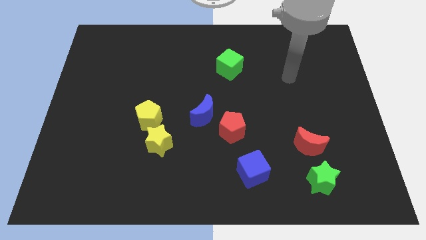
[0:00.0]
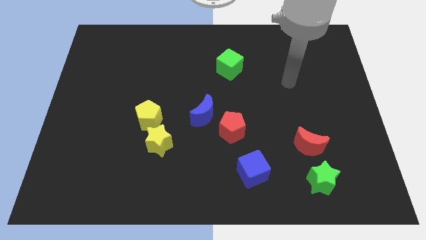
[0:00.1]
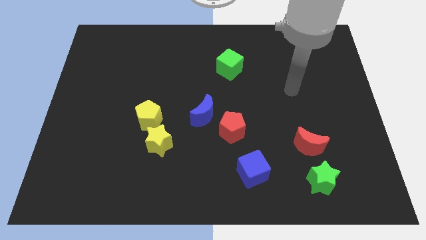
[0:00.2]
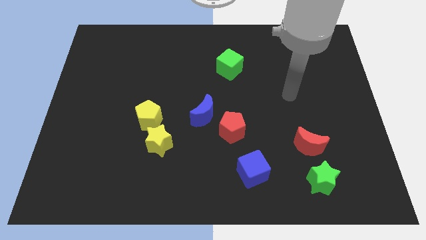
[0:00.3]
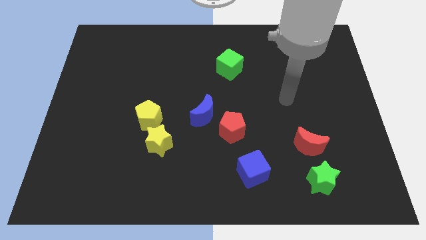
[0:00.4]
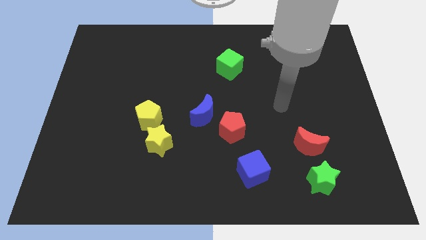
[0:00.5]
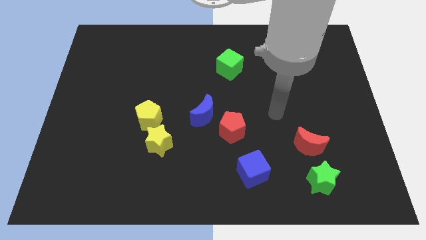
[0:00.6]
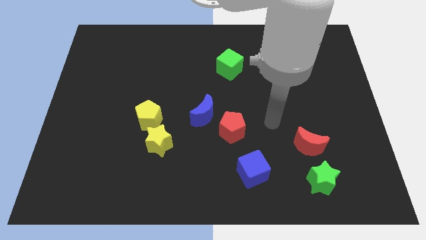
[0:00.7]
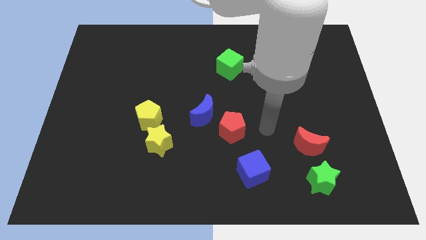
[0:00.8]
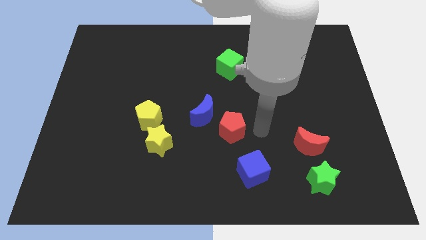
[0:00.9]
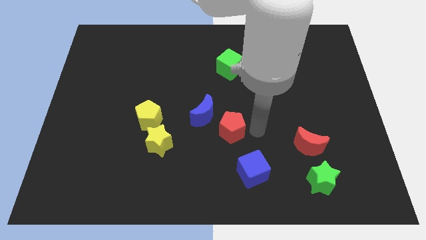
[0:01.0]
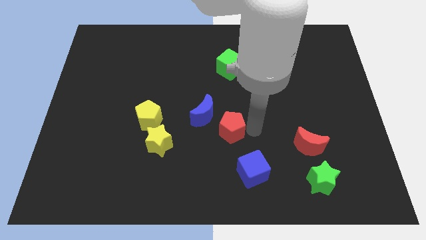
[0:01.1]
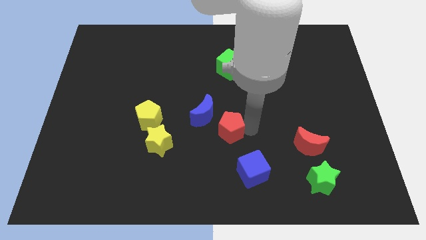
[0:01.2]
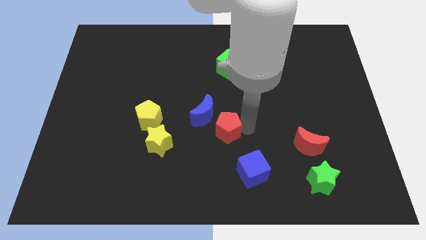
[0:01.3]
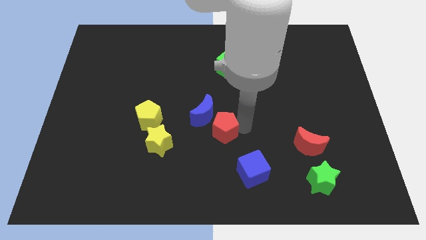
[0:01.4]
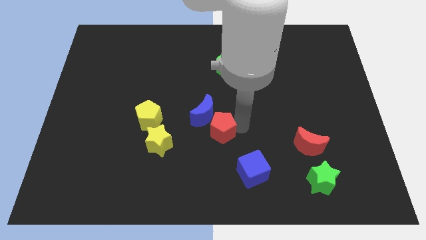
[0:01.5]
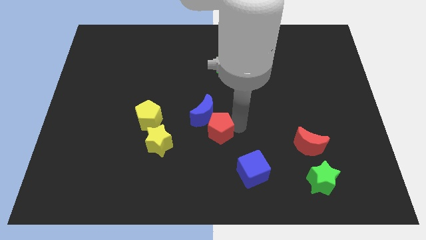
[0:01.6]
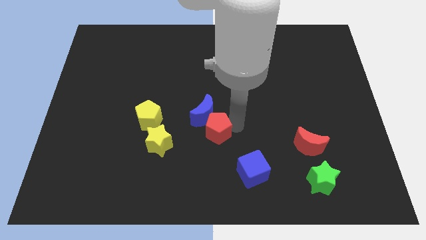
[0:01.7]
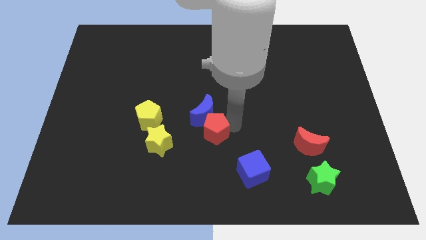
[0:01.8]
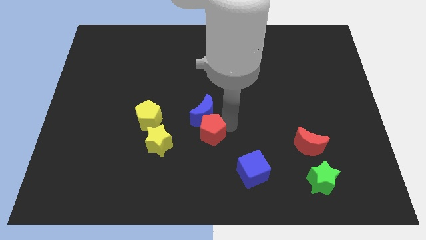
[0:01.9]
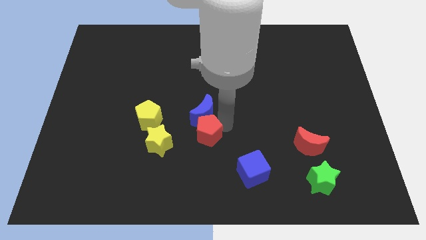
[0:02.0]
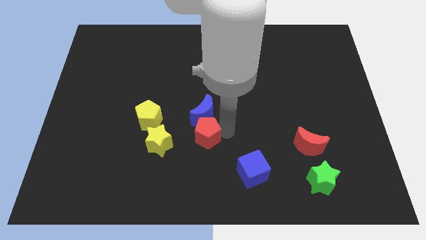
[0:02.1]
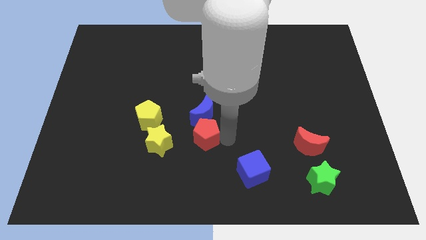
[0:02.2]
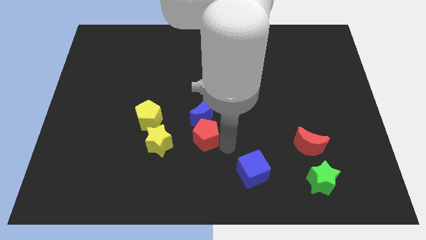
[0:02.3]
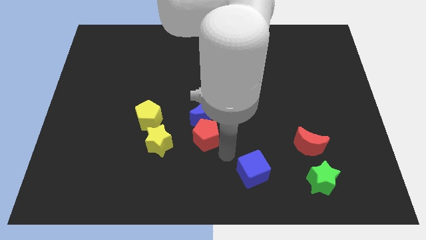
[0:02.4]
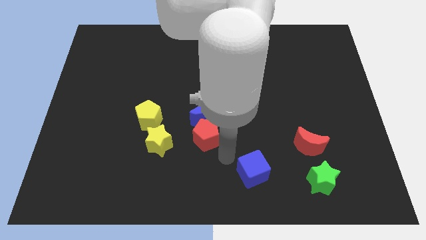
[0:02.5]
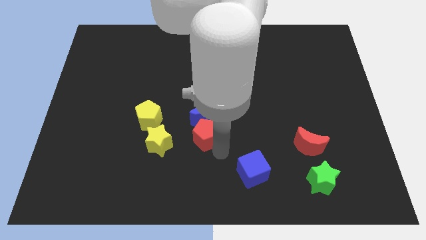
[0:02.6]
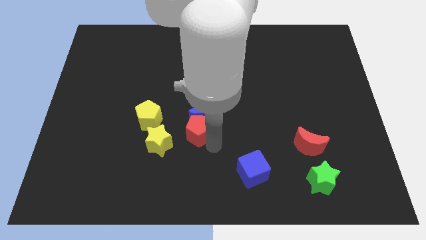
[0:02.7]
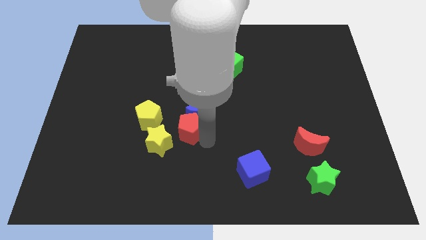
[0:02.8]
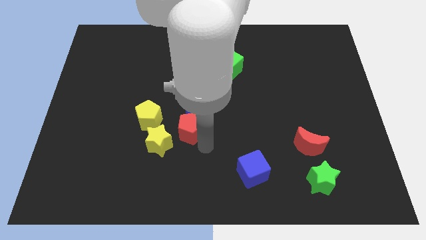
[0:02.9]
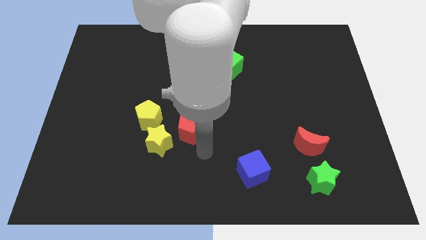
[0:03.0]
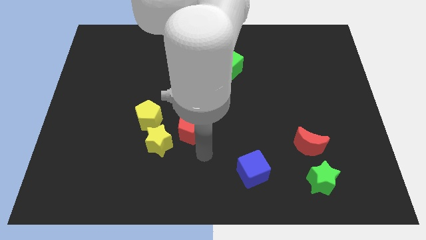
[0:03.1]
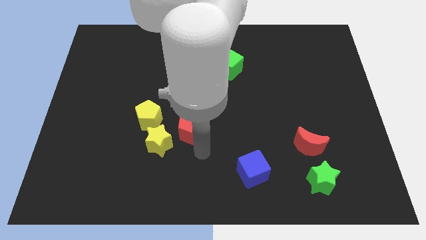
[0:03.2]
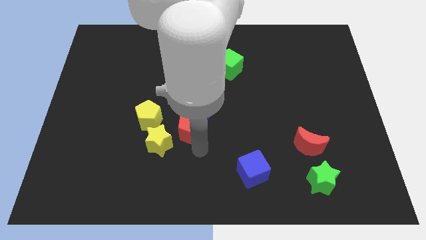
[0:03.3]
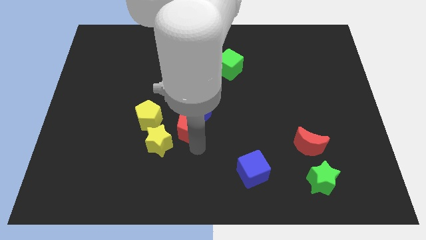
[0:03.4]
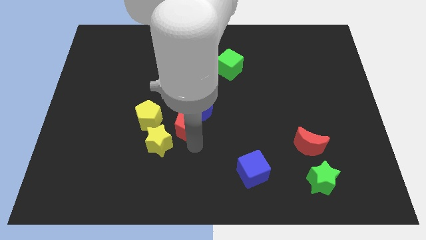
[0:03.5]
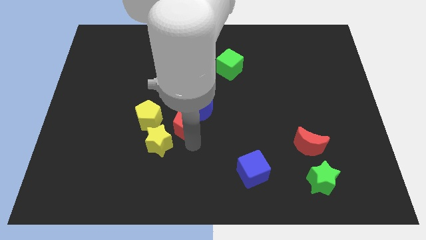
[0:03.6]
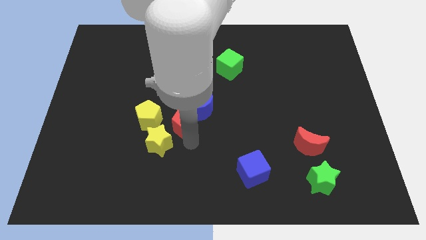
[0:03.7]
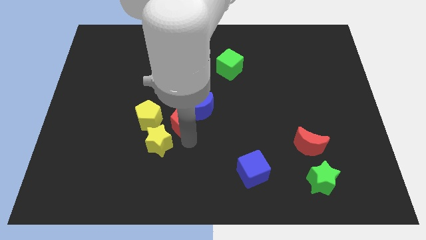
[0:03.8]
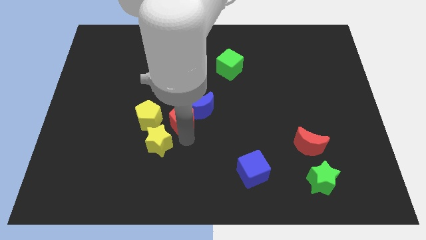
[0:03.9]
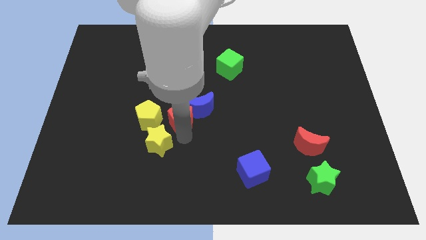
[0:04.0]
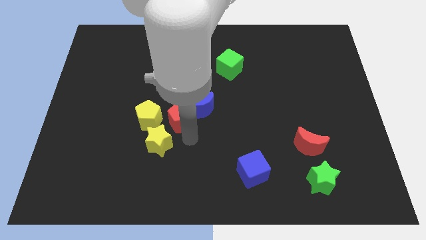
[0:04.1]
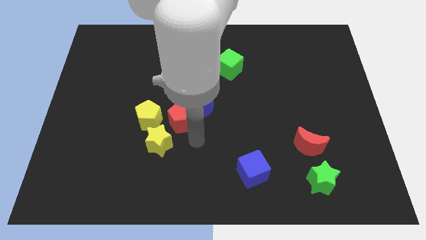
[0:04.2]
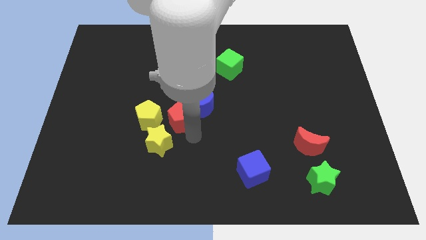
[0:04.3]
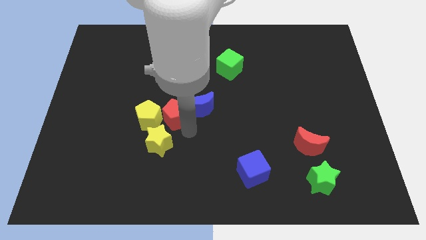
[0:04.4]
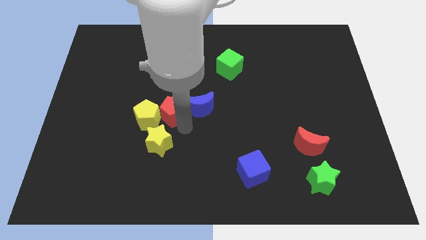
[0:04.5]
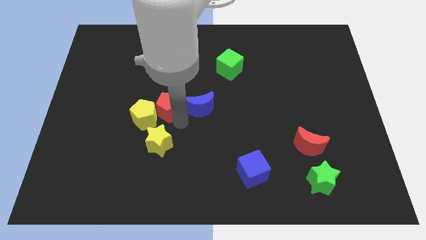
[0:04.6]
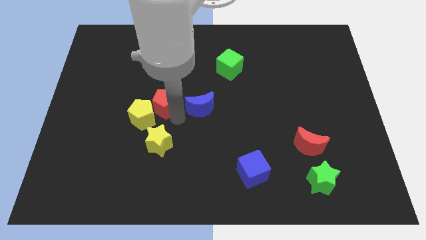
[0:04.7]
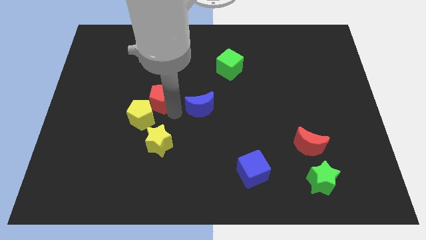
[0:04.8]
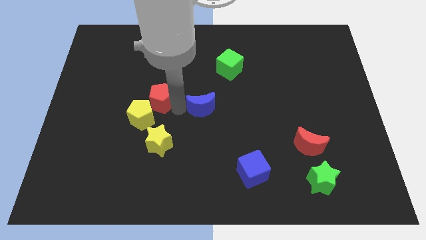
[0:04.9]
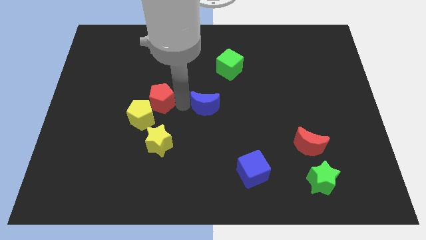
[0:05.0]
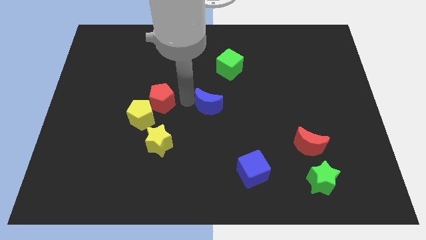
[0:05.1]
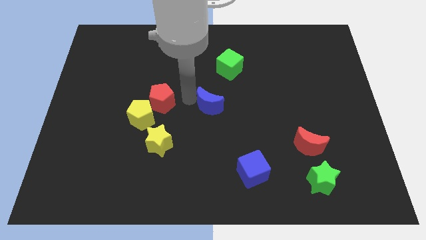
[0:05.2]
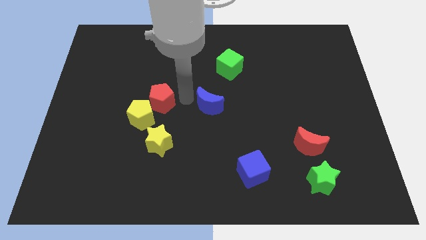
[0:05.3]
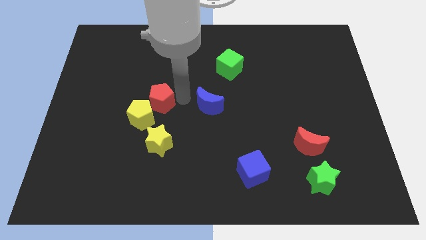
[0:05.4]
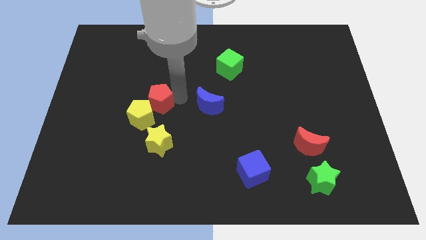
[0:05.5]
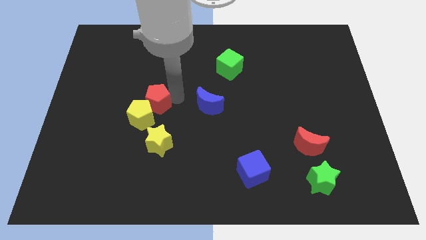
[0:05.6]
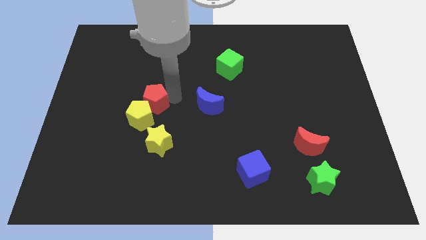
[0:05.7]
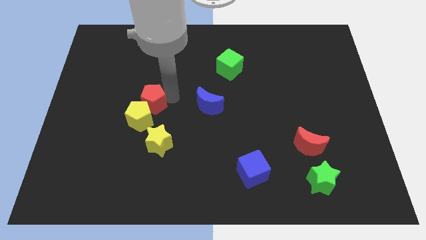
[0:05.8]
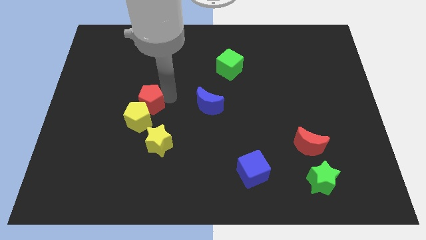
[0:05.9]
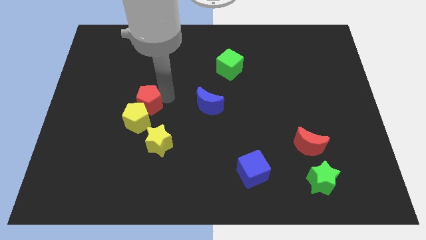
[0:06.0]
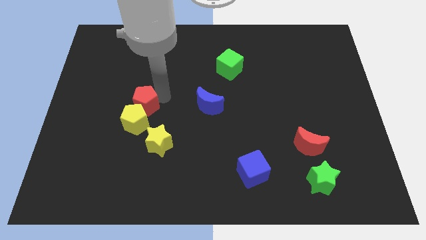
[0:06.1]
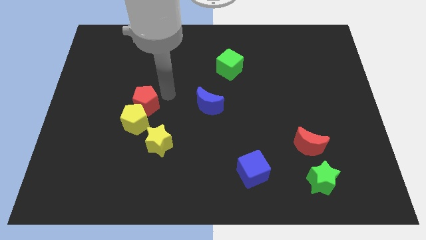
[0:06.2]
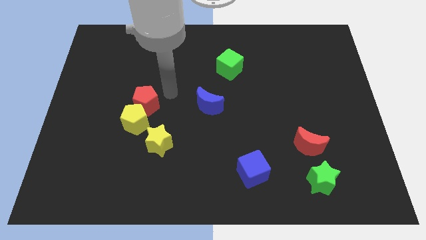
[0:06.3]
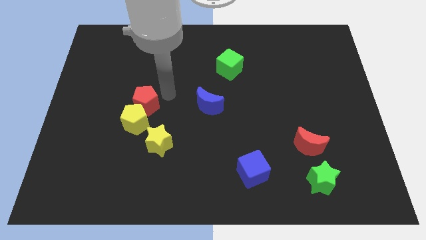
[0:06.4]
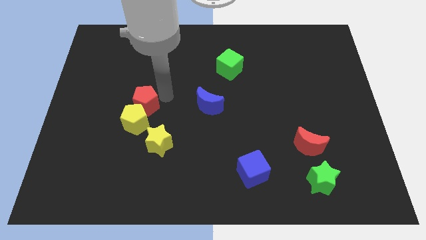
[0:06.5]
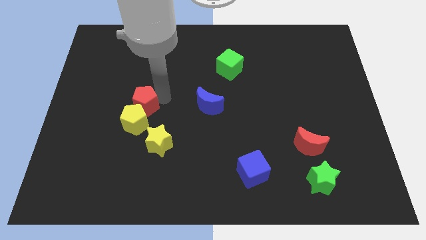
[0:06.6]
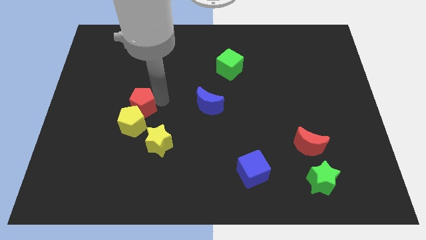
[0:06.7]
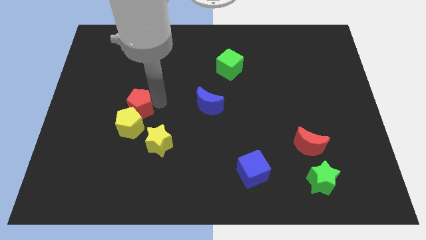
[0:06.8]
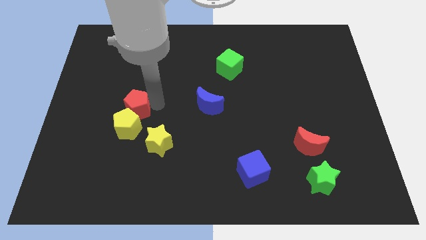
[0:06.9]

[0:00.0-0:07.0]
move the red pentagon to the left

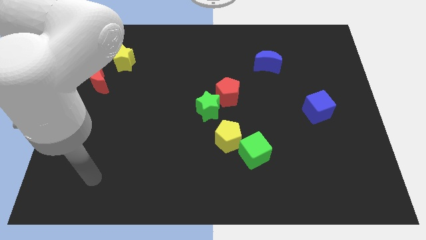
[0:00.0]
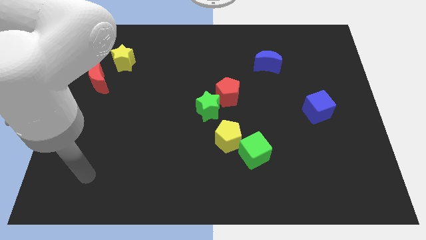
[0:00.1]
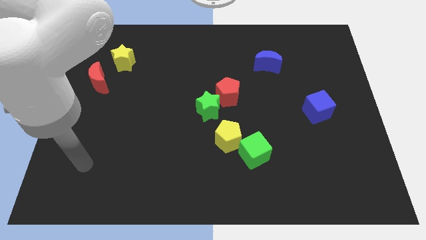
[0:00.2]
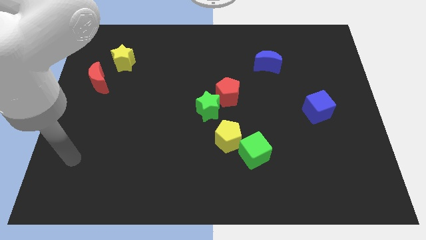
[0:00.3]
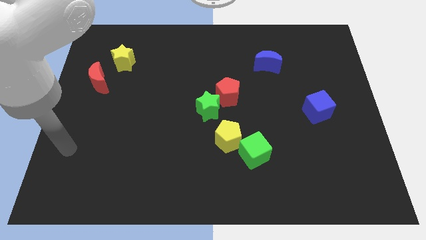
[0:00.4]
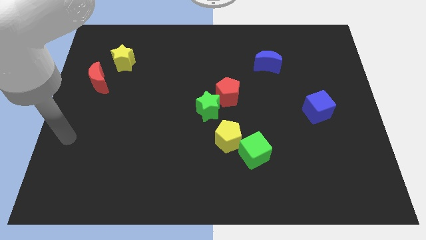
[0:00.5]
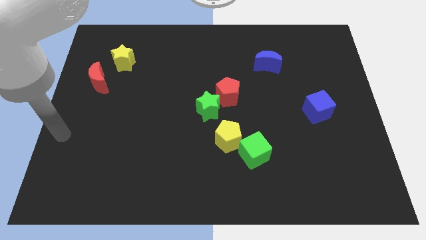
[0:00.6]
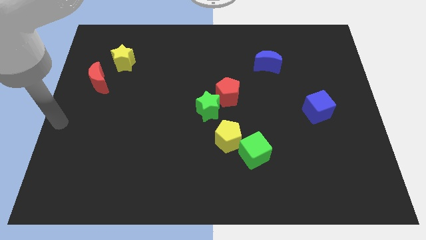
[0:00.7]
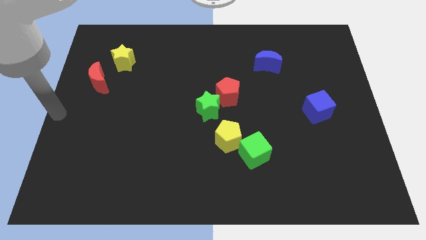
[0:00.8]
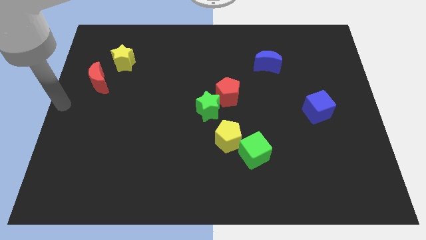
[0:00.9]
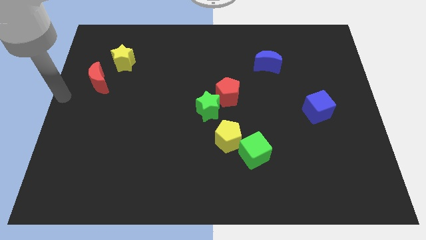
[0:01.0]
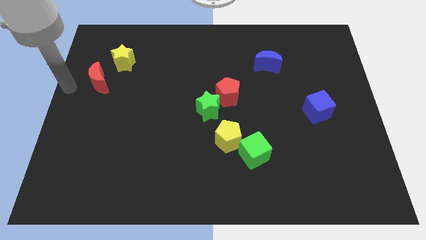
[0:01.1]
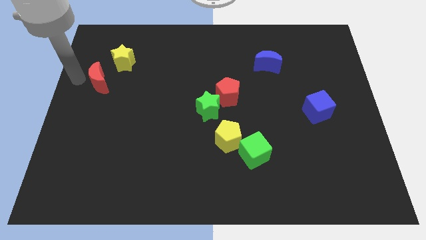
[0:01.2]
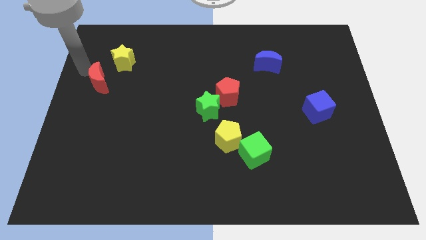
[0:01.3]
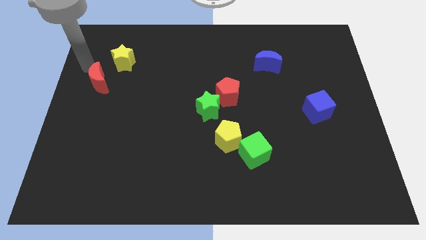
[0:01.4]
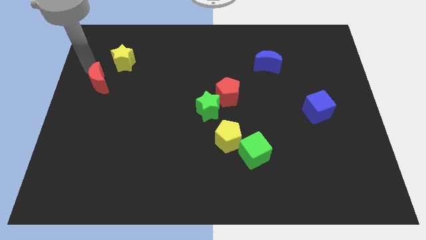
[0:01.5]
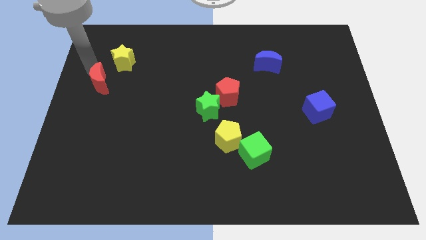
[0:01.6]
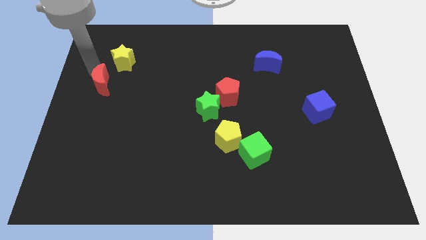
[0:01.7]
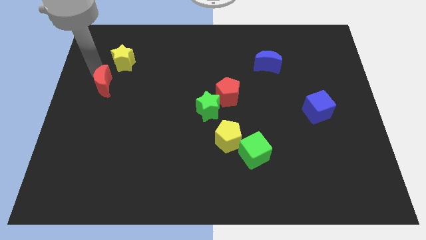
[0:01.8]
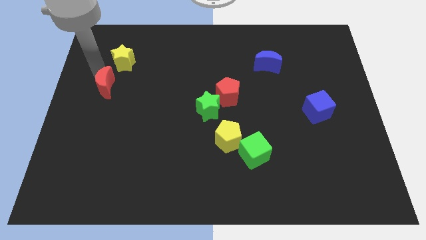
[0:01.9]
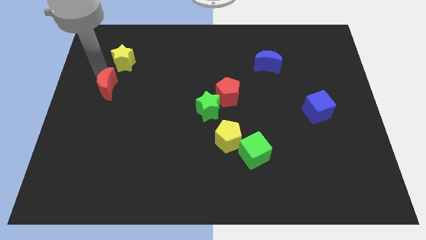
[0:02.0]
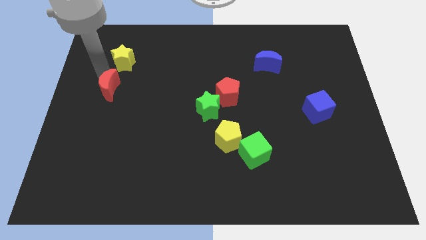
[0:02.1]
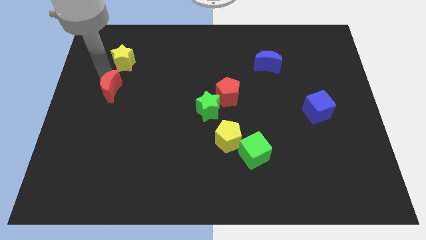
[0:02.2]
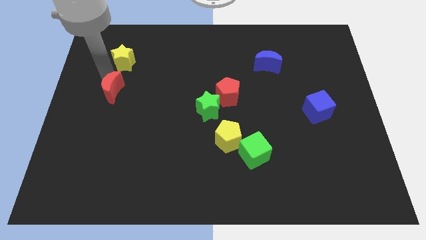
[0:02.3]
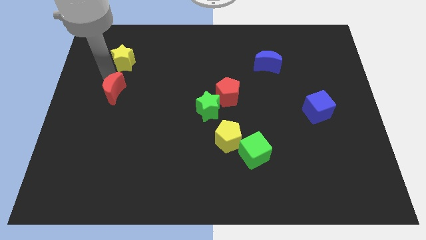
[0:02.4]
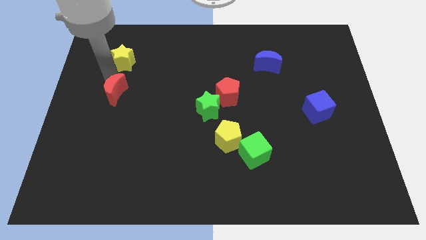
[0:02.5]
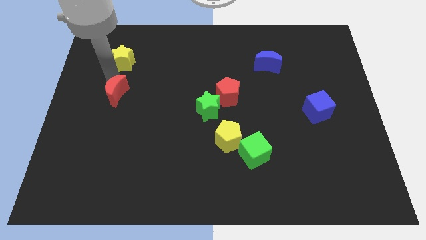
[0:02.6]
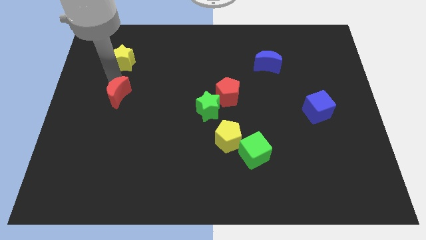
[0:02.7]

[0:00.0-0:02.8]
push the red moon diagonally down and to the right somewhat
